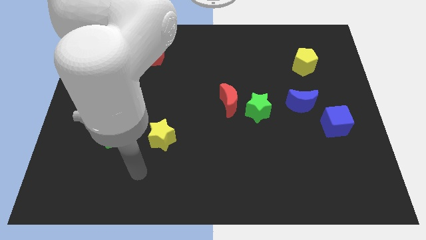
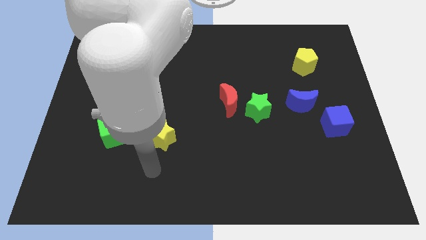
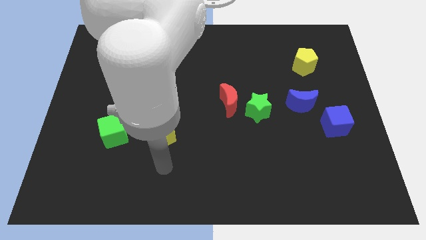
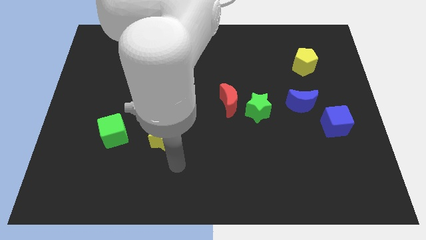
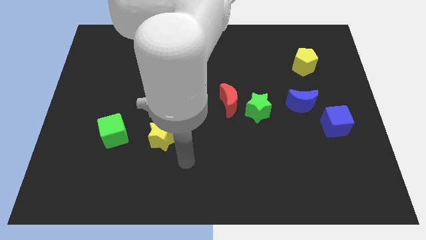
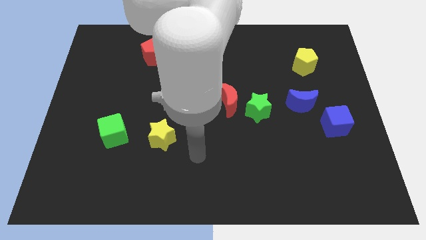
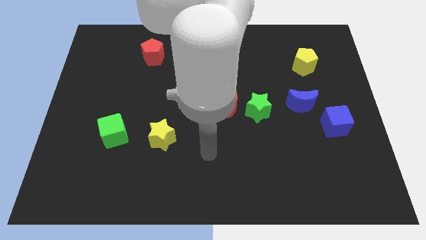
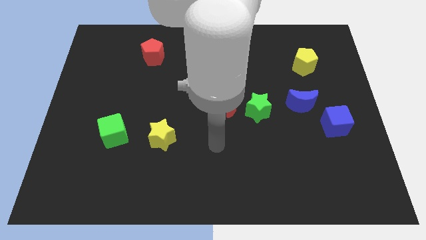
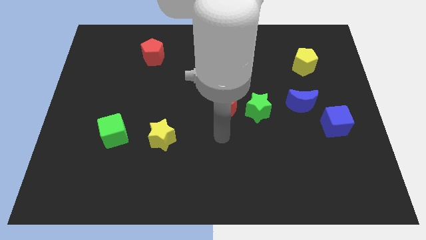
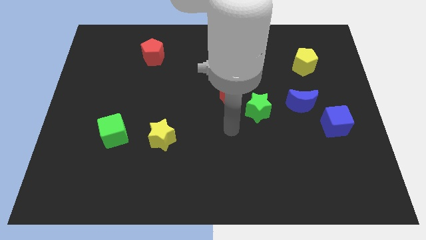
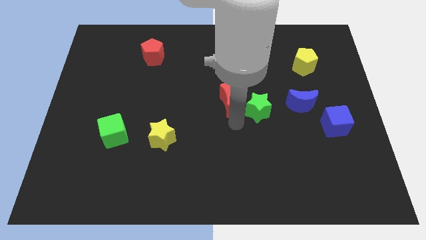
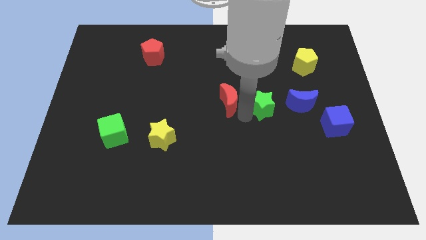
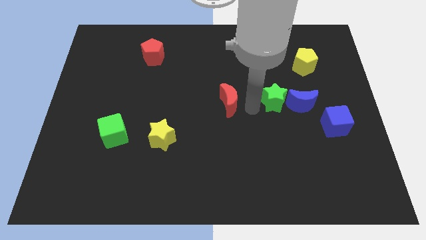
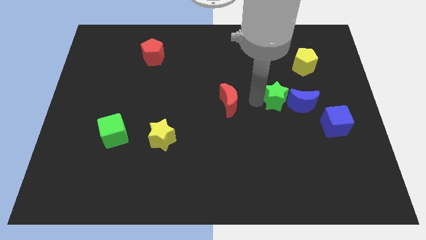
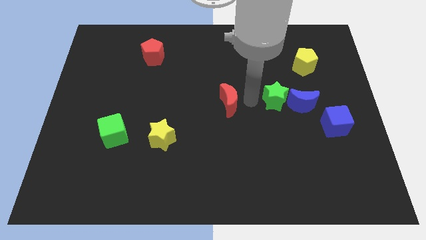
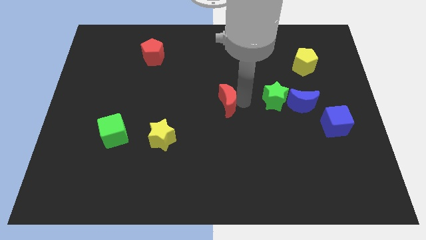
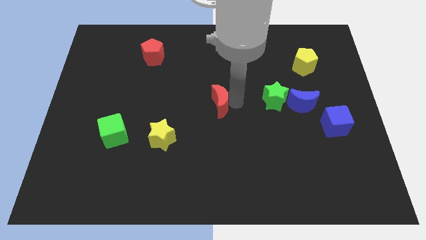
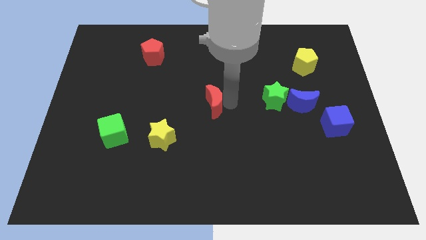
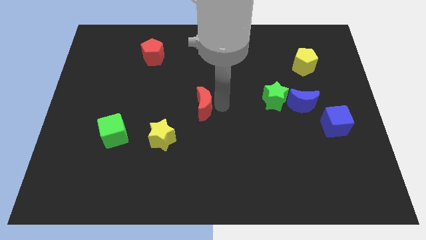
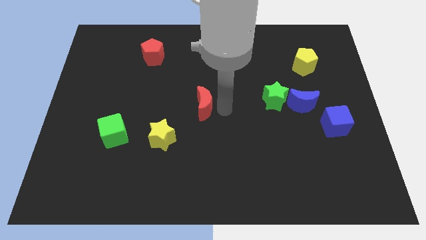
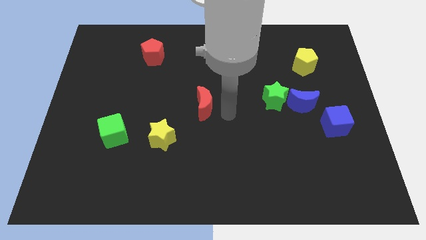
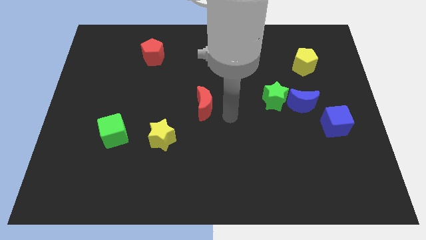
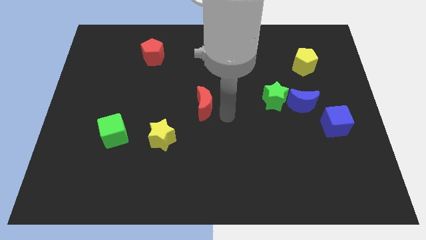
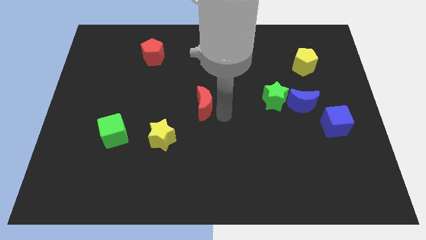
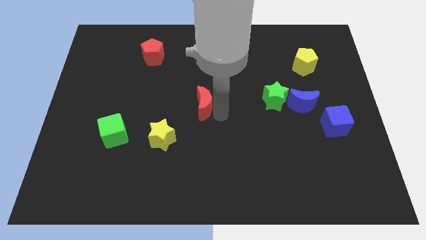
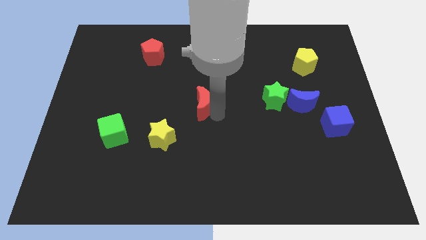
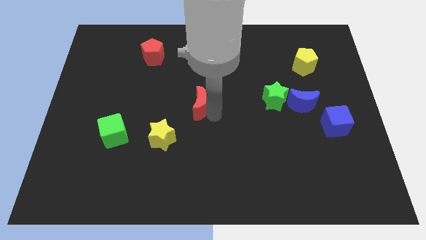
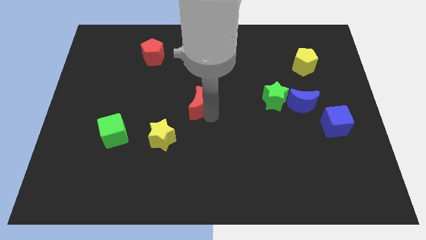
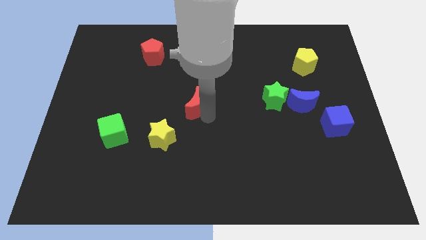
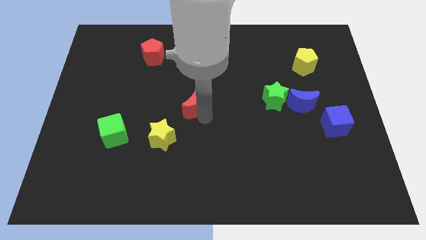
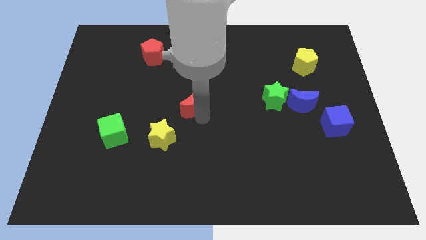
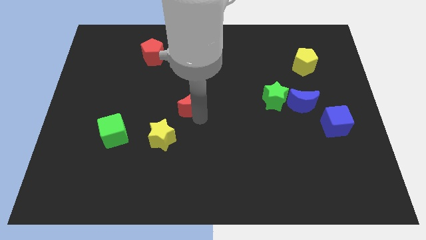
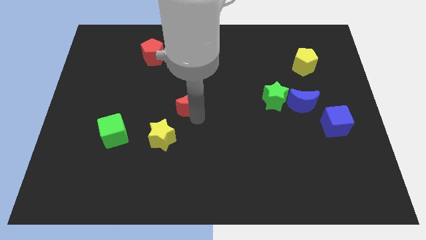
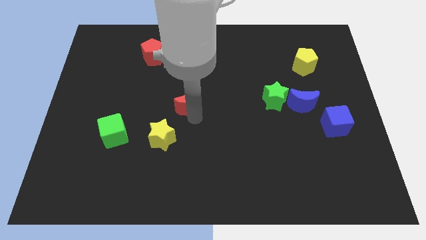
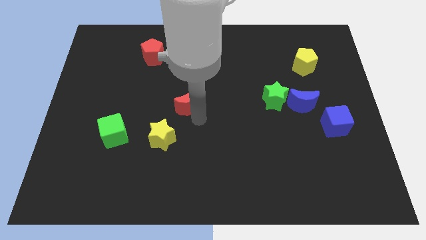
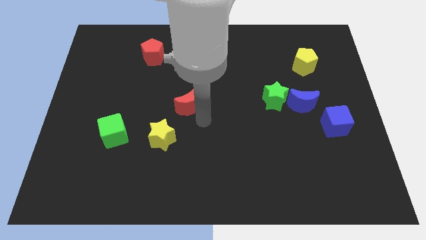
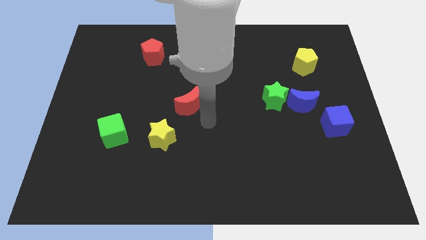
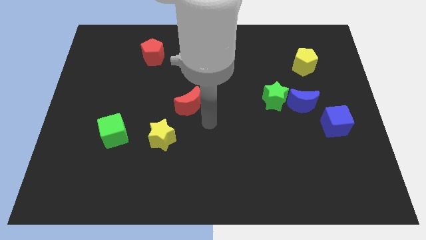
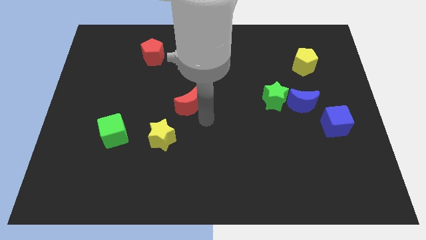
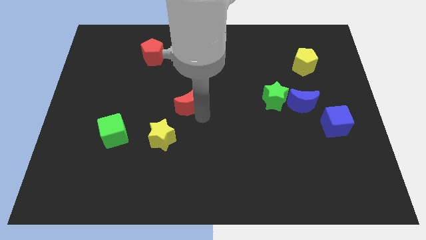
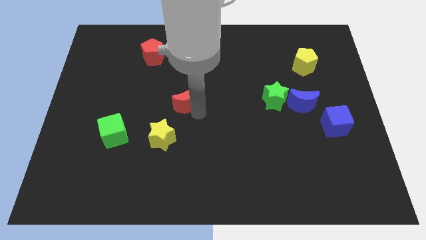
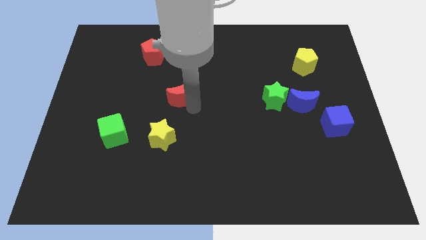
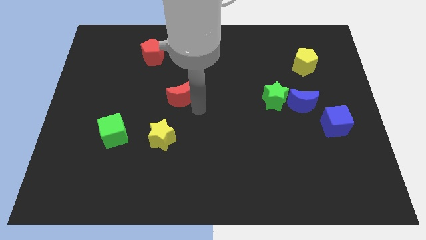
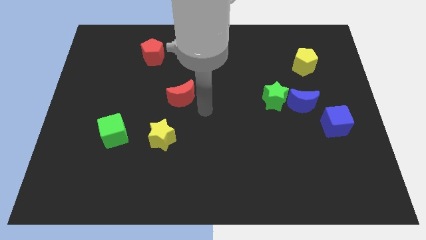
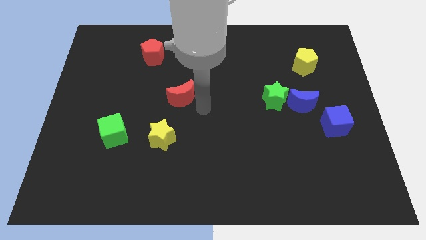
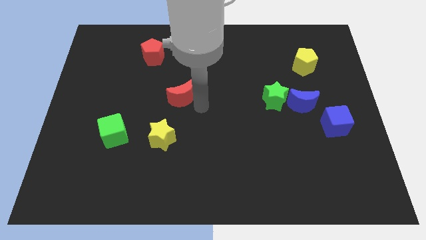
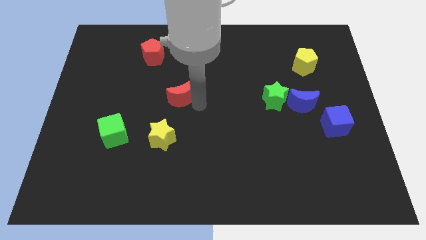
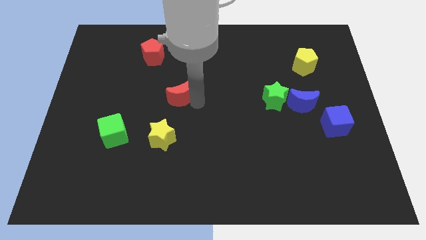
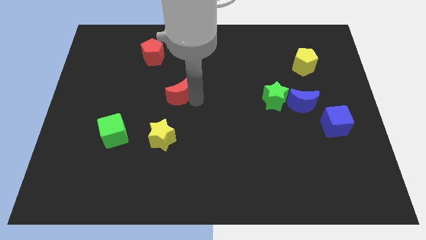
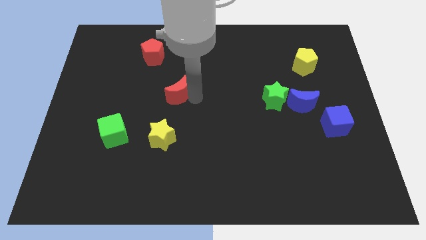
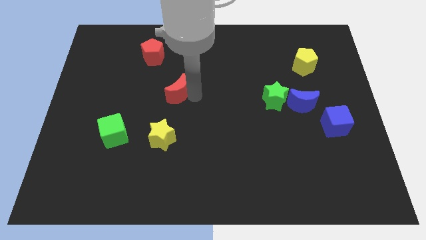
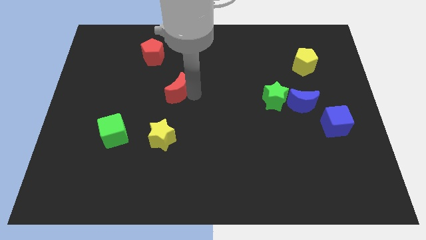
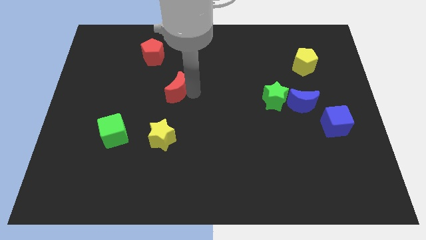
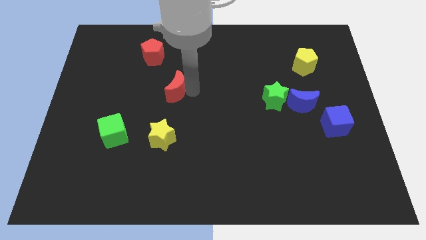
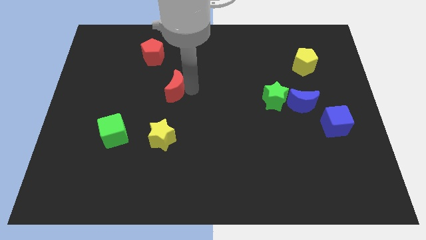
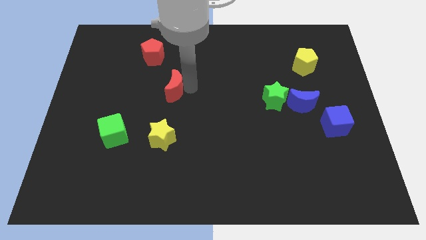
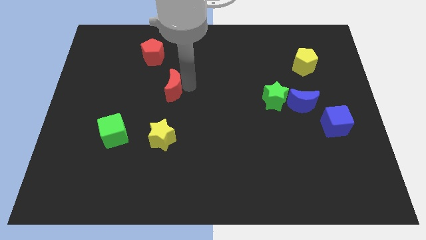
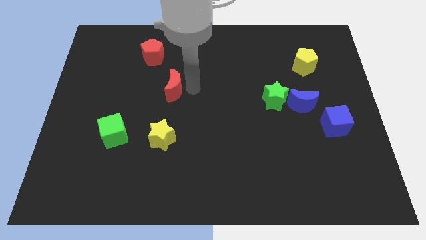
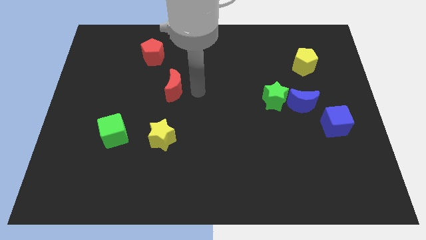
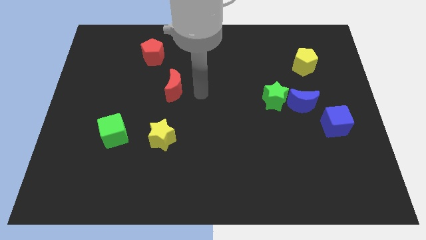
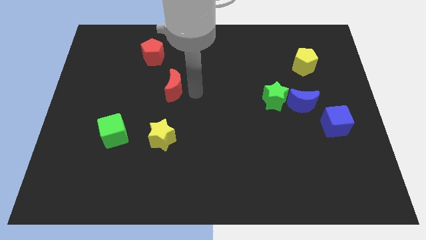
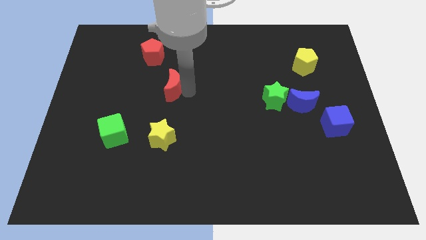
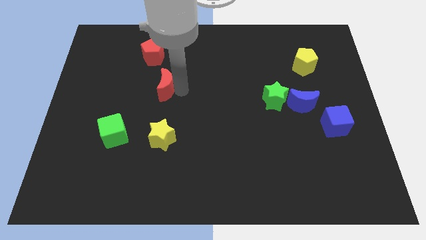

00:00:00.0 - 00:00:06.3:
put the red moon to the bottom of the red pentagon
